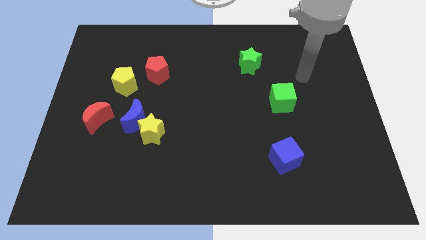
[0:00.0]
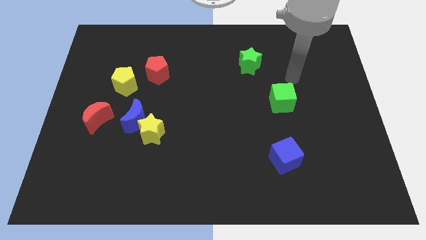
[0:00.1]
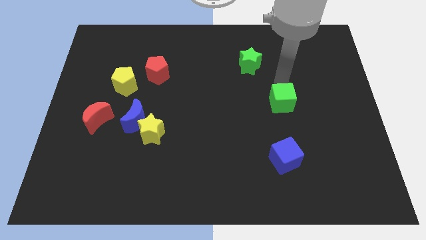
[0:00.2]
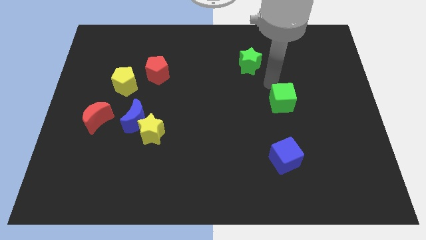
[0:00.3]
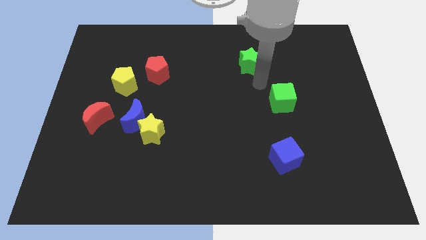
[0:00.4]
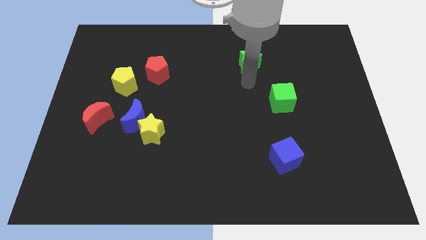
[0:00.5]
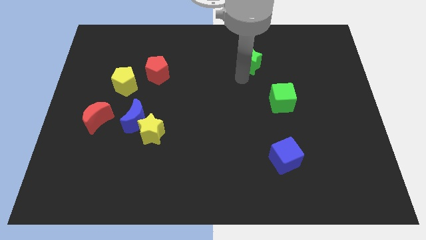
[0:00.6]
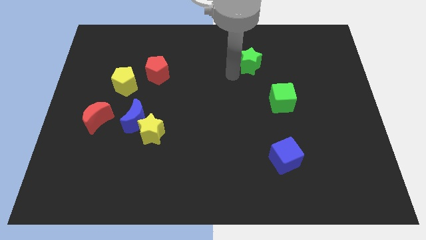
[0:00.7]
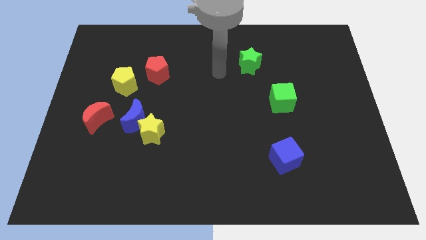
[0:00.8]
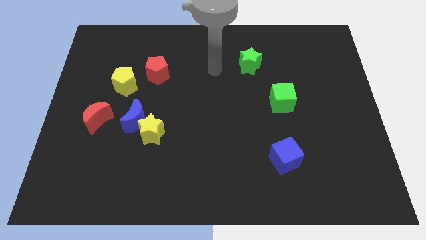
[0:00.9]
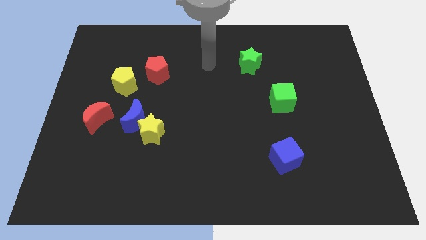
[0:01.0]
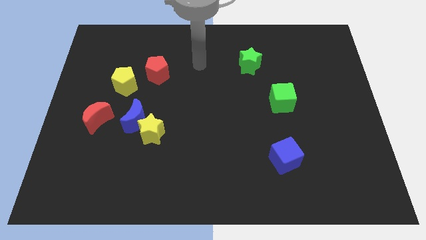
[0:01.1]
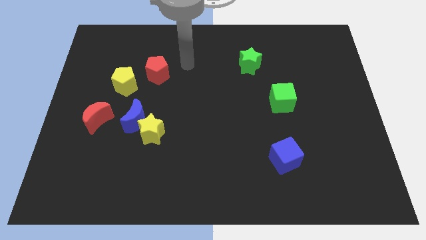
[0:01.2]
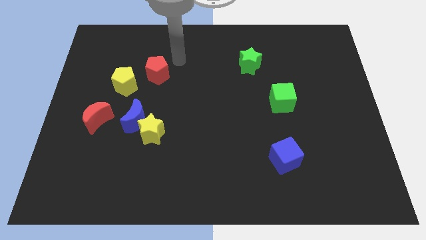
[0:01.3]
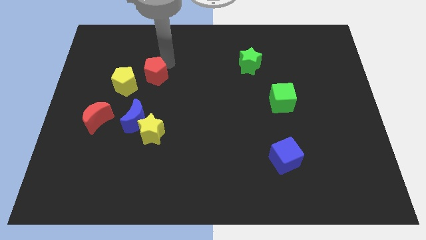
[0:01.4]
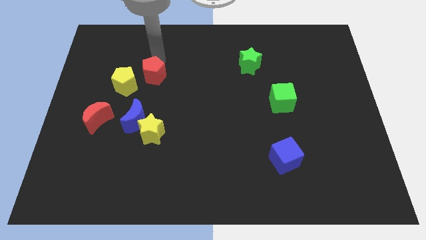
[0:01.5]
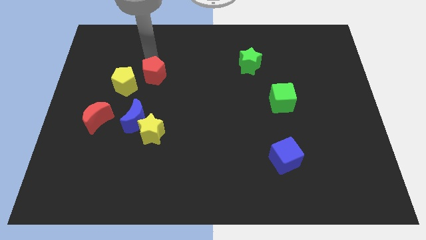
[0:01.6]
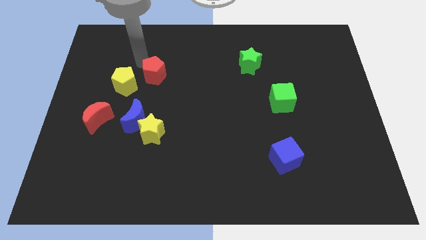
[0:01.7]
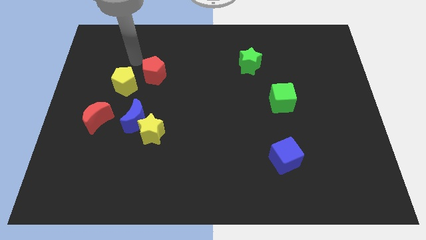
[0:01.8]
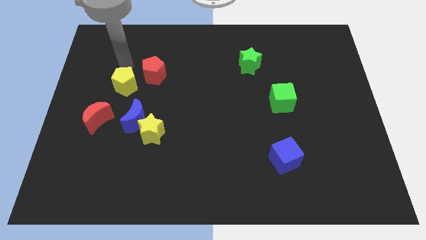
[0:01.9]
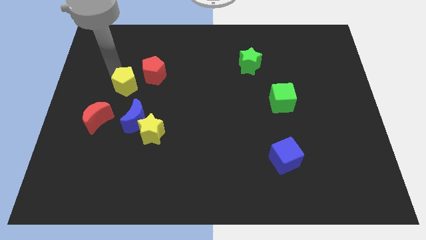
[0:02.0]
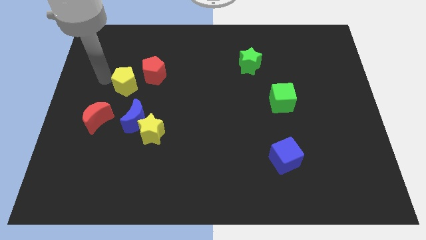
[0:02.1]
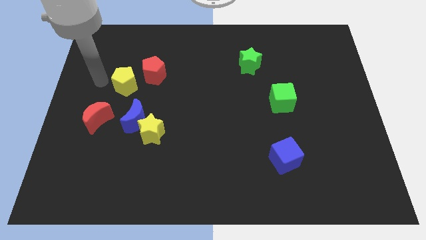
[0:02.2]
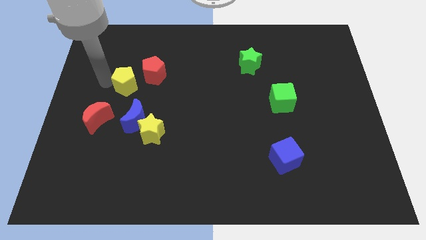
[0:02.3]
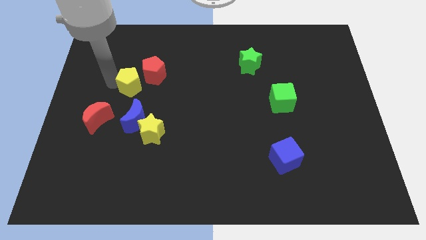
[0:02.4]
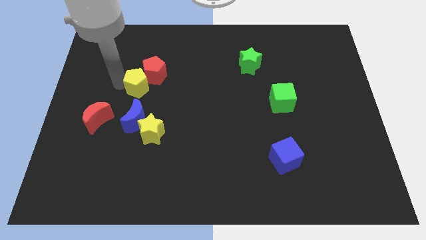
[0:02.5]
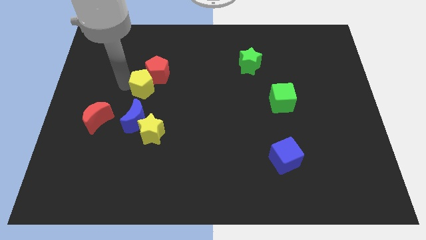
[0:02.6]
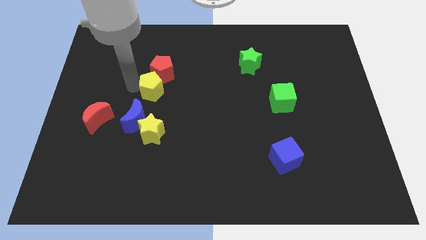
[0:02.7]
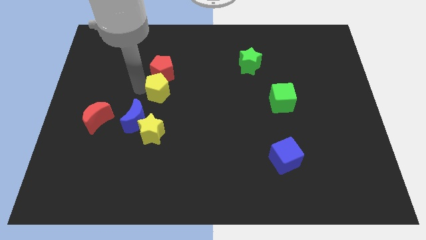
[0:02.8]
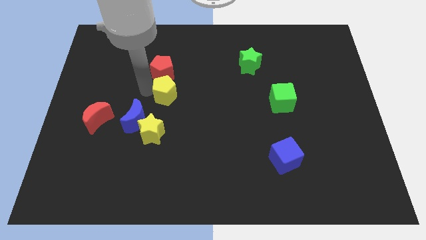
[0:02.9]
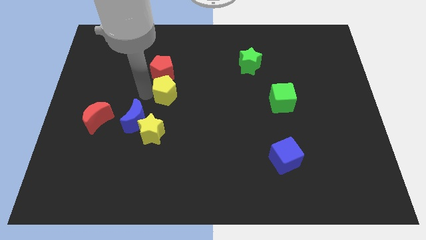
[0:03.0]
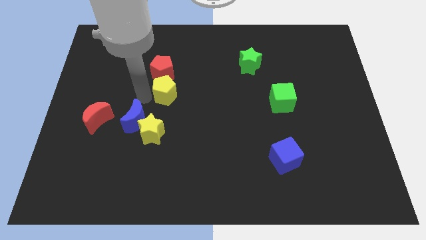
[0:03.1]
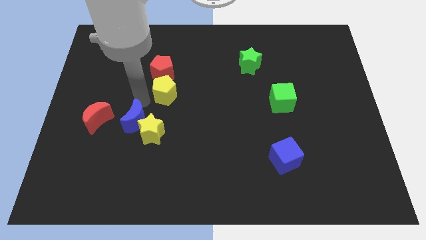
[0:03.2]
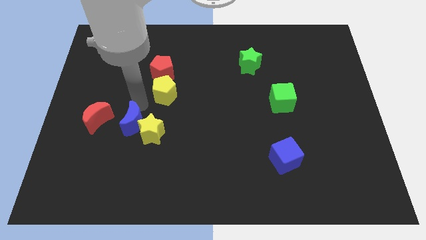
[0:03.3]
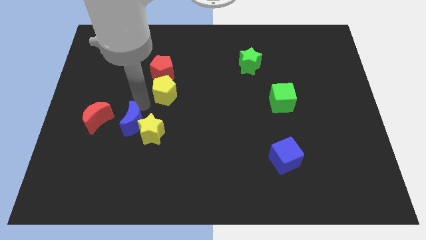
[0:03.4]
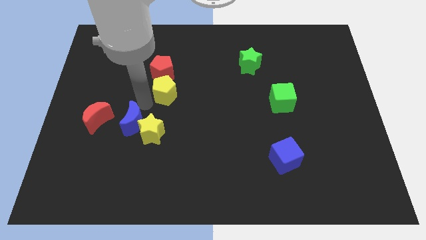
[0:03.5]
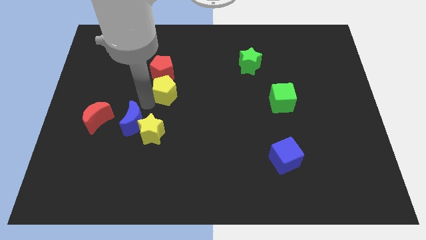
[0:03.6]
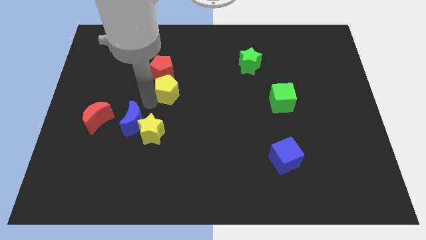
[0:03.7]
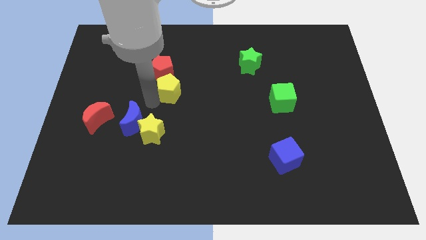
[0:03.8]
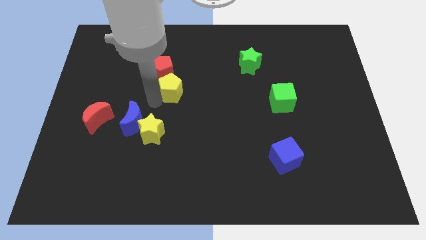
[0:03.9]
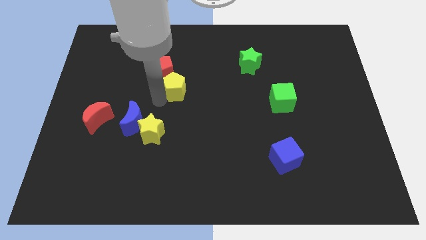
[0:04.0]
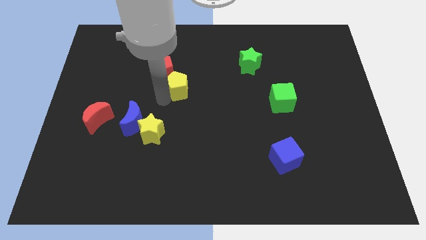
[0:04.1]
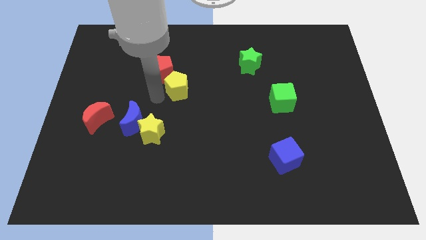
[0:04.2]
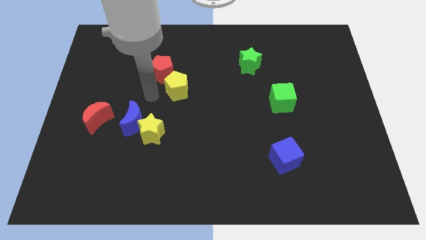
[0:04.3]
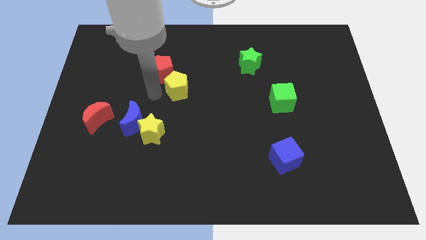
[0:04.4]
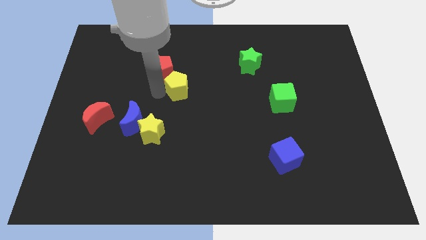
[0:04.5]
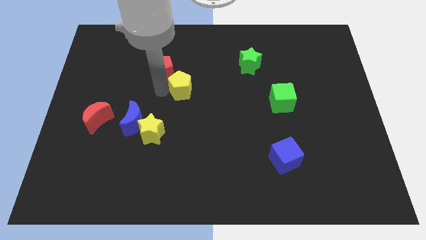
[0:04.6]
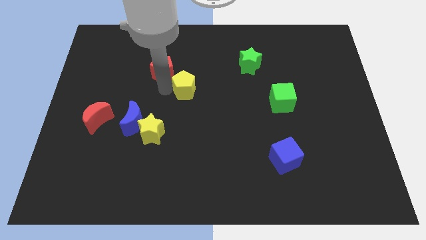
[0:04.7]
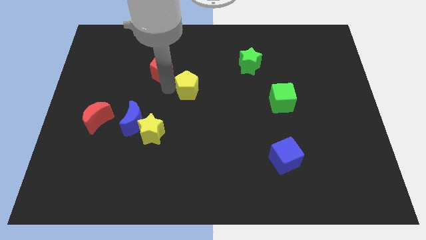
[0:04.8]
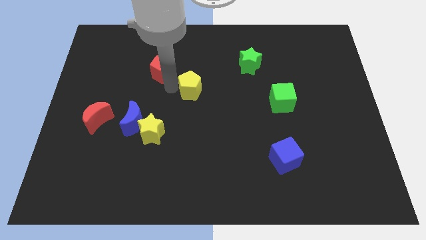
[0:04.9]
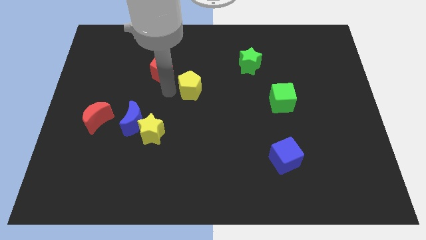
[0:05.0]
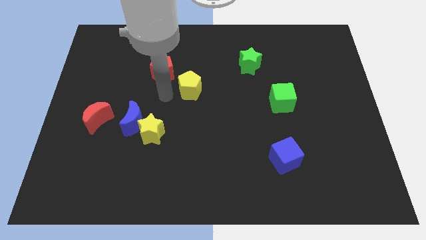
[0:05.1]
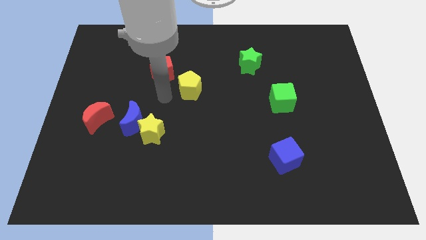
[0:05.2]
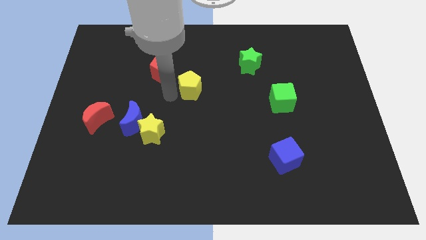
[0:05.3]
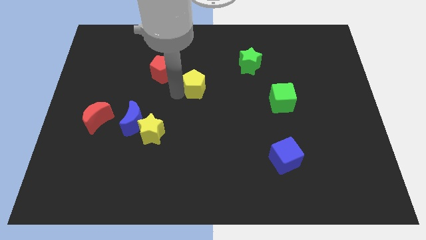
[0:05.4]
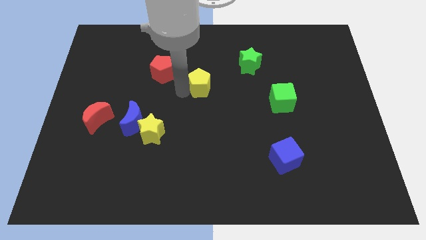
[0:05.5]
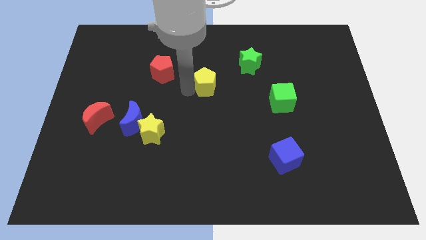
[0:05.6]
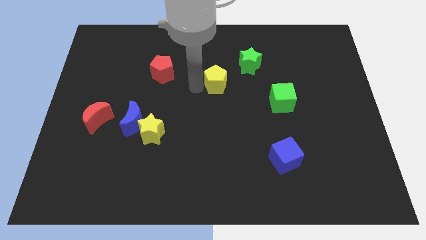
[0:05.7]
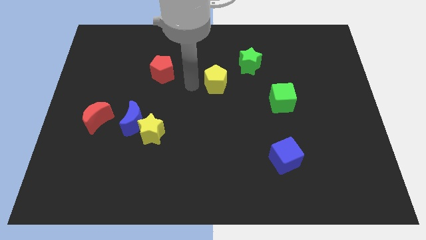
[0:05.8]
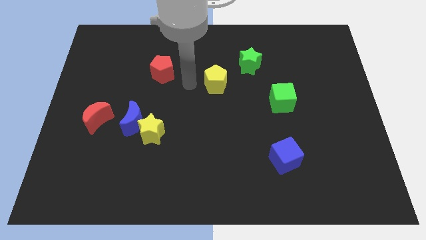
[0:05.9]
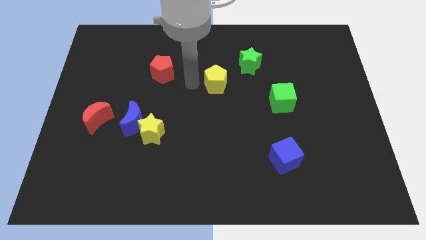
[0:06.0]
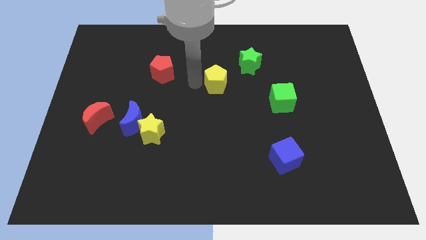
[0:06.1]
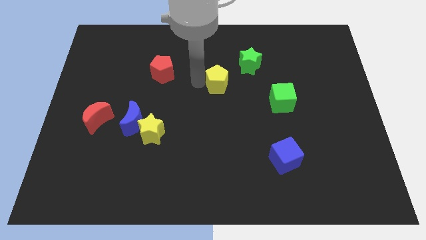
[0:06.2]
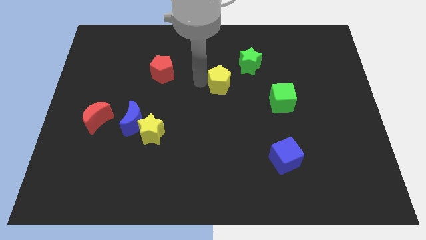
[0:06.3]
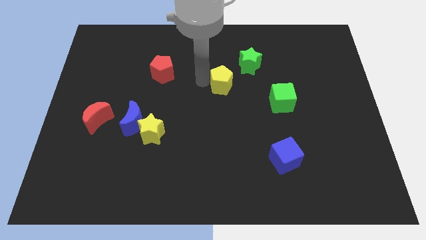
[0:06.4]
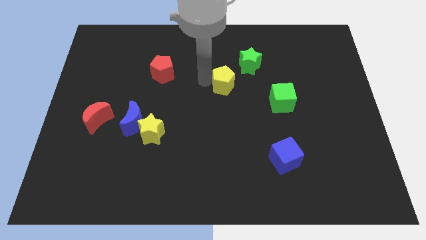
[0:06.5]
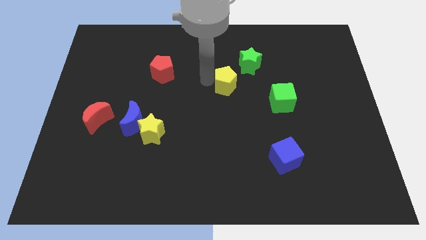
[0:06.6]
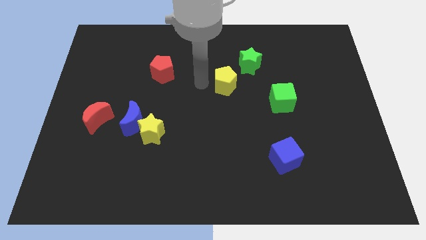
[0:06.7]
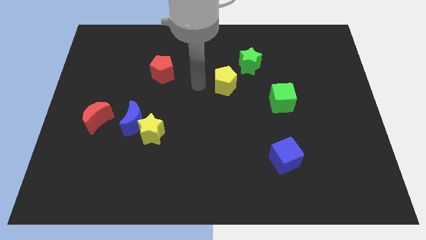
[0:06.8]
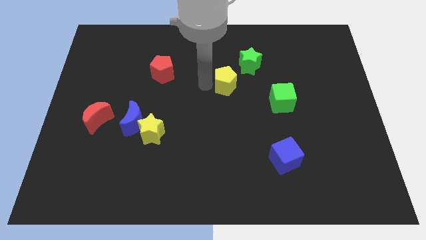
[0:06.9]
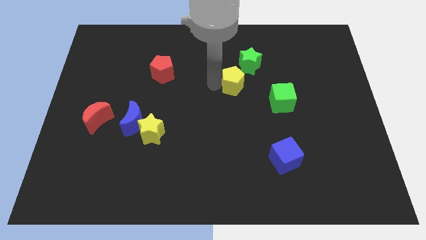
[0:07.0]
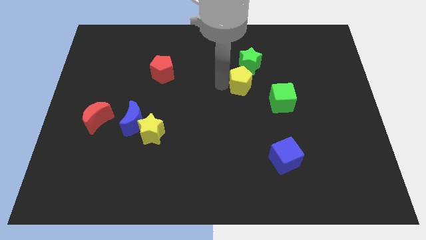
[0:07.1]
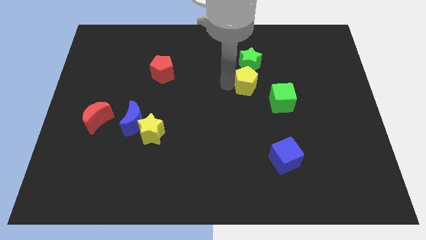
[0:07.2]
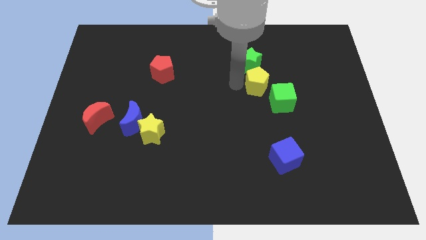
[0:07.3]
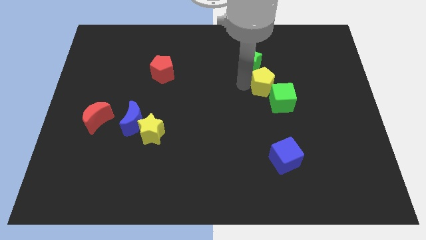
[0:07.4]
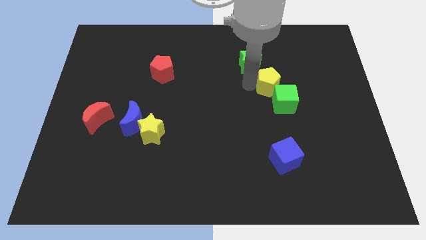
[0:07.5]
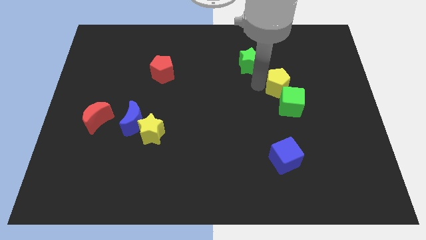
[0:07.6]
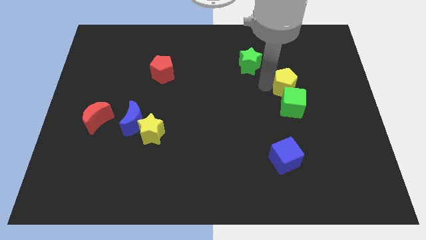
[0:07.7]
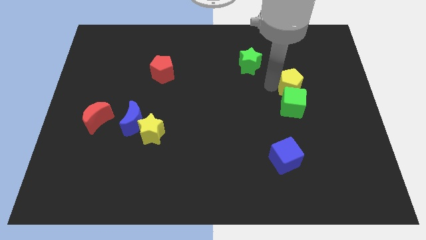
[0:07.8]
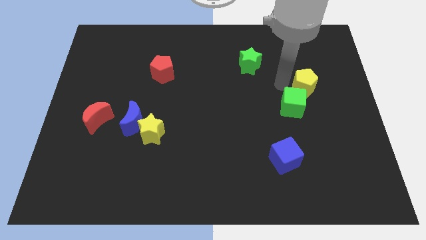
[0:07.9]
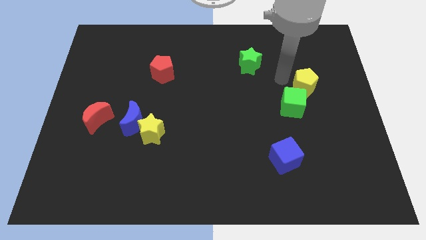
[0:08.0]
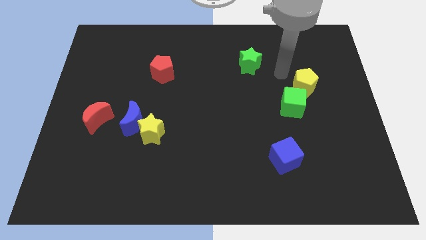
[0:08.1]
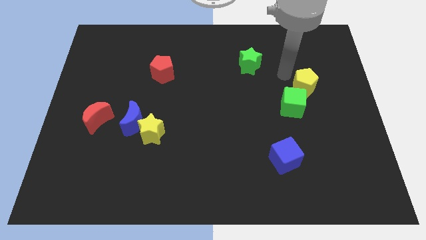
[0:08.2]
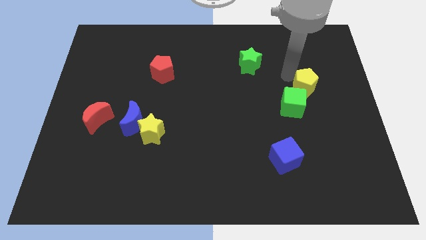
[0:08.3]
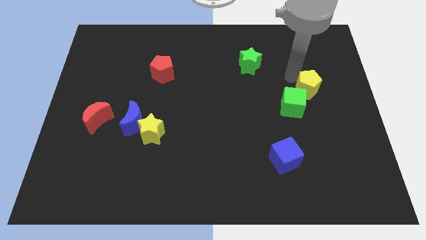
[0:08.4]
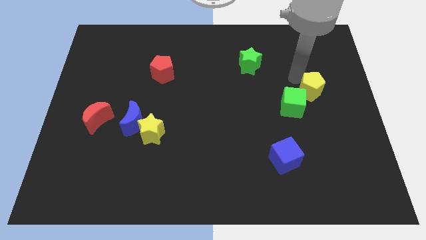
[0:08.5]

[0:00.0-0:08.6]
push the yellow pentagon just right of the green cube
